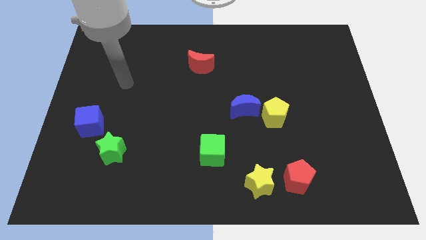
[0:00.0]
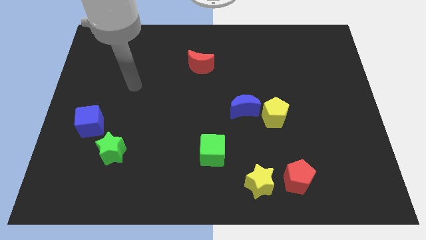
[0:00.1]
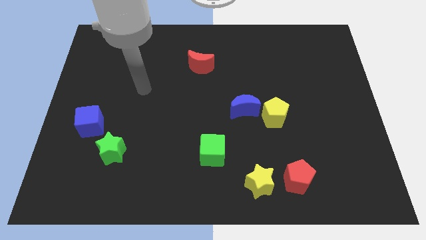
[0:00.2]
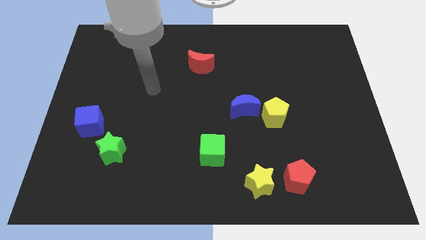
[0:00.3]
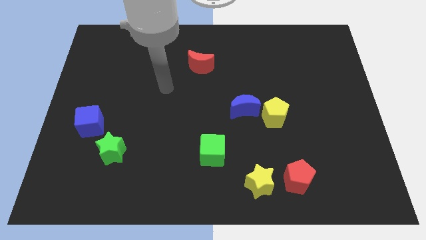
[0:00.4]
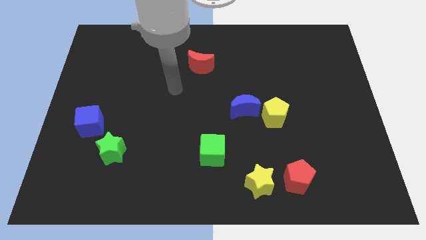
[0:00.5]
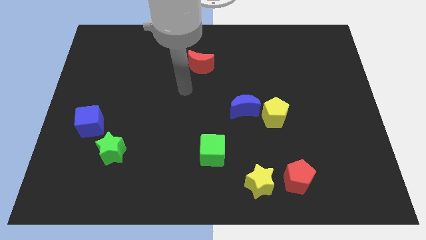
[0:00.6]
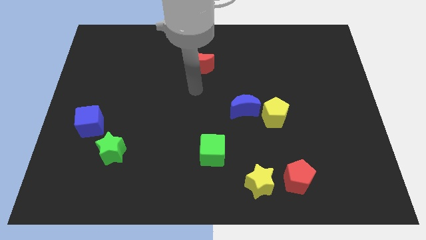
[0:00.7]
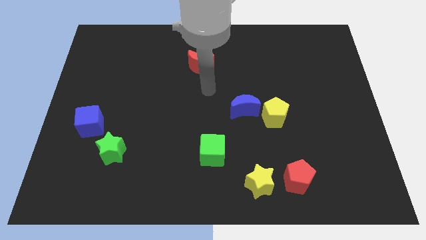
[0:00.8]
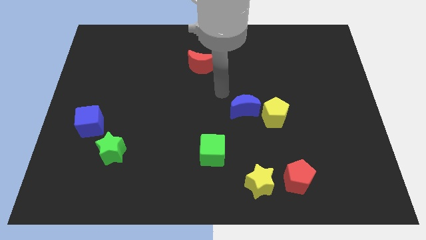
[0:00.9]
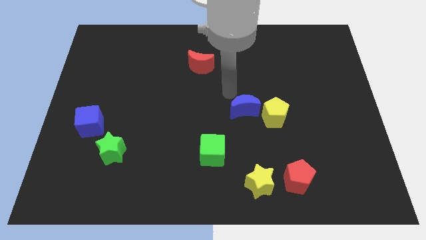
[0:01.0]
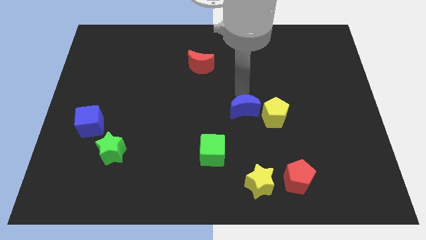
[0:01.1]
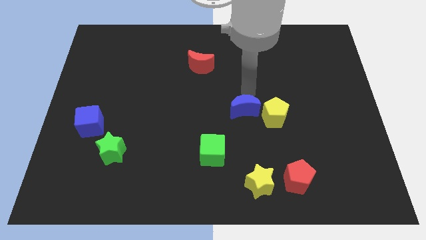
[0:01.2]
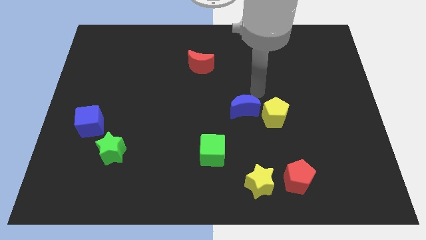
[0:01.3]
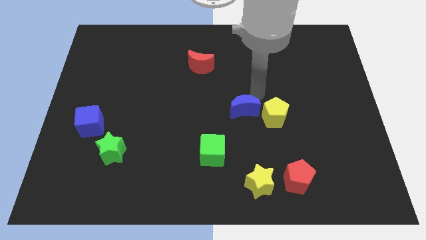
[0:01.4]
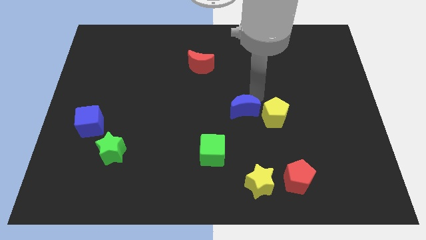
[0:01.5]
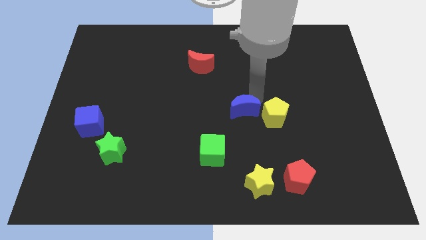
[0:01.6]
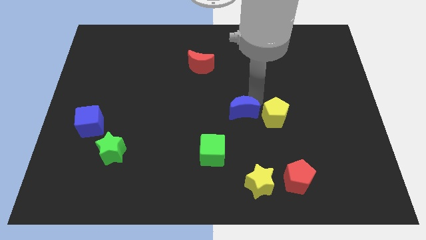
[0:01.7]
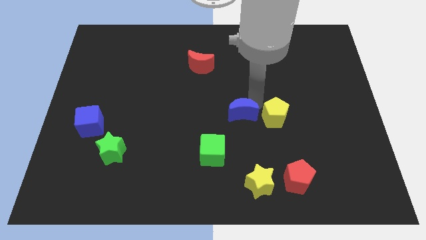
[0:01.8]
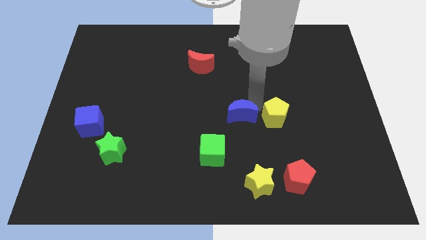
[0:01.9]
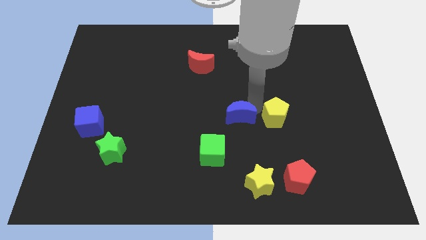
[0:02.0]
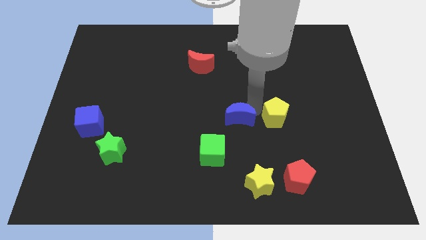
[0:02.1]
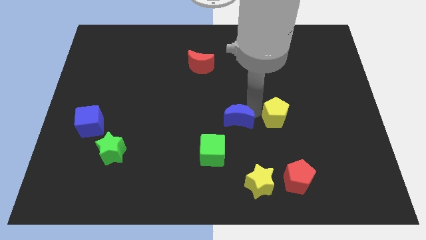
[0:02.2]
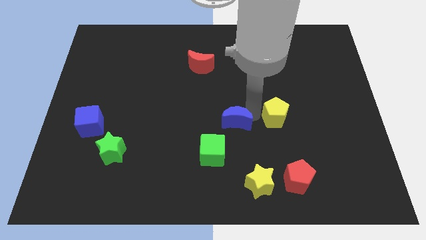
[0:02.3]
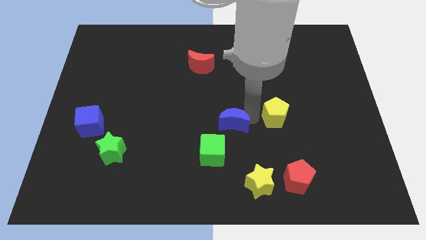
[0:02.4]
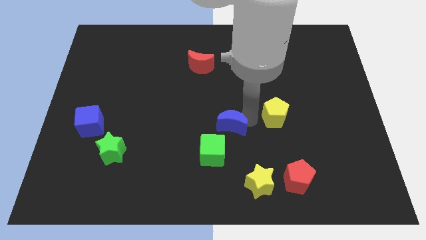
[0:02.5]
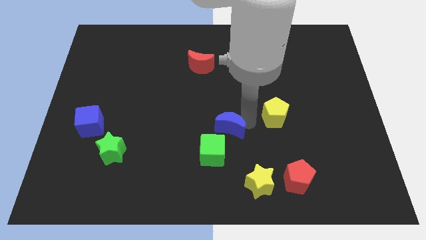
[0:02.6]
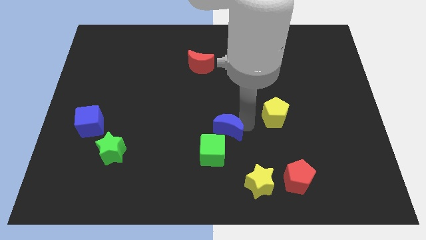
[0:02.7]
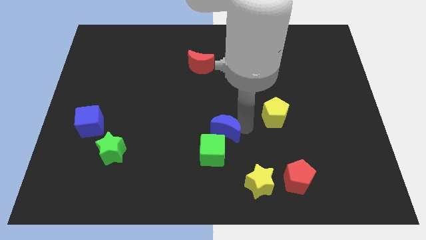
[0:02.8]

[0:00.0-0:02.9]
push the blue moon down and then left somewhat

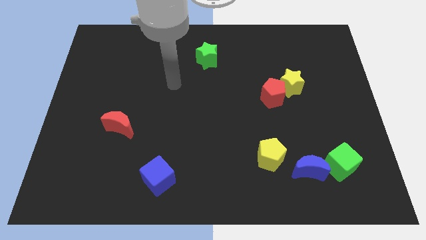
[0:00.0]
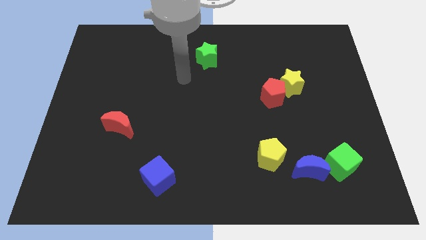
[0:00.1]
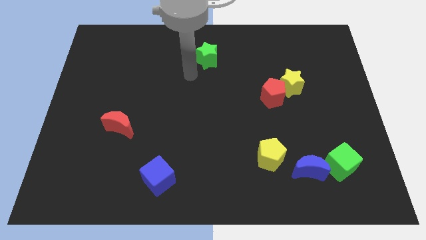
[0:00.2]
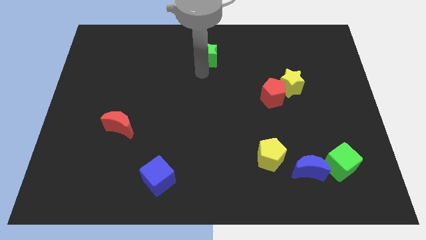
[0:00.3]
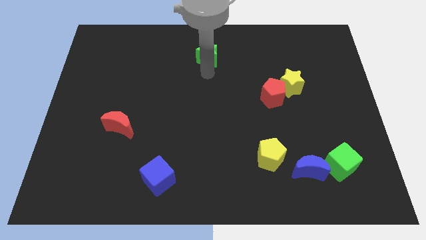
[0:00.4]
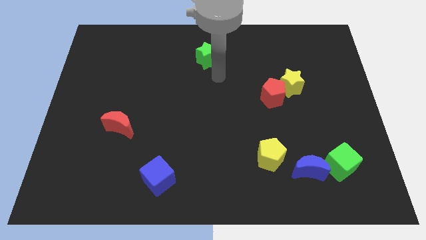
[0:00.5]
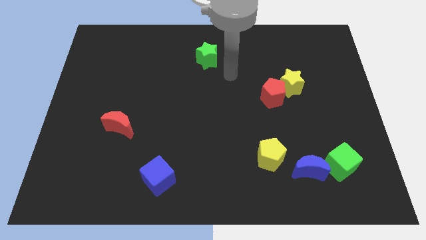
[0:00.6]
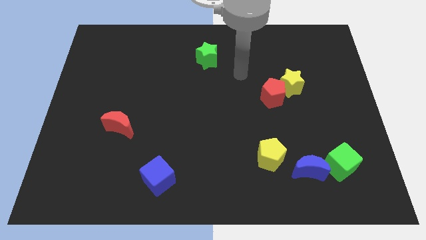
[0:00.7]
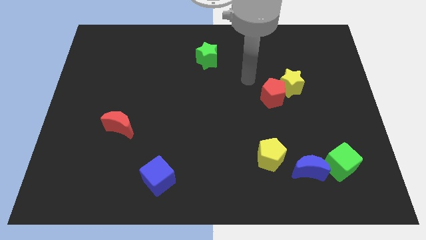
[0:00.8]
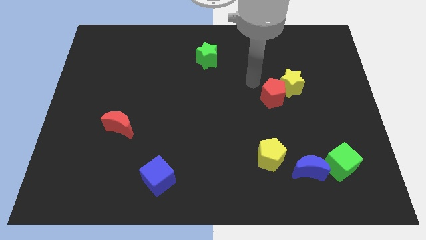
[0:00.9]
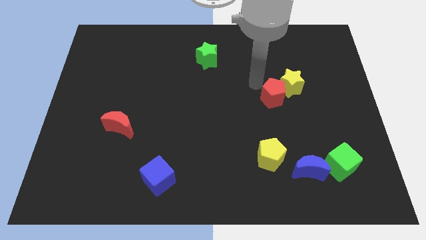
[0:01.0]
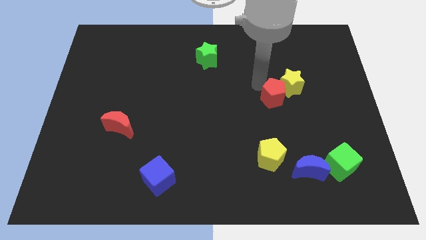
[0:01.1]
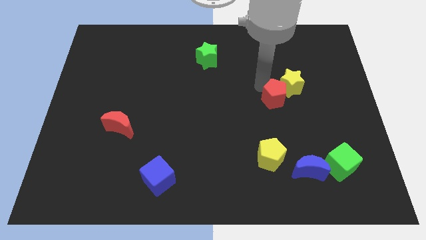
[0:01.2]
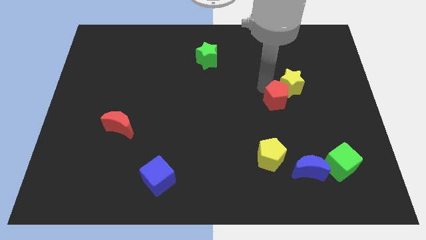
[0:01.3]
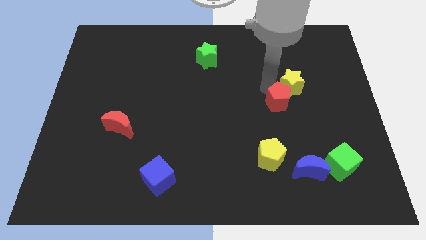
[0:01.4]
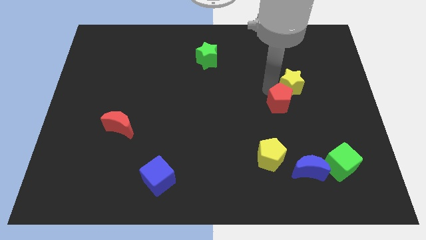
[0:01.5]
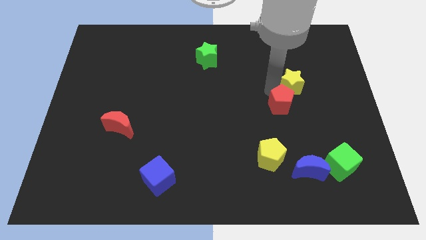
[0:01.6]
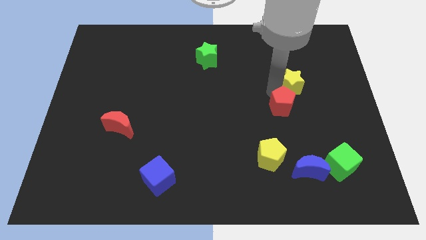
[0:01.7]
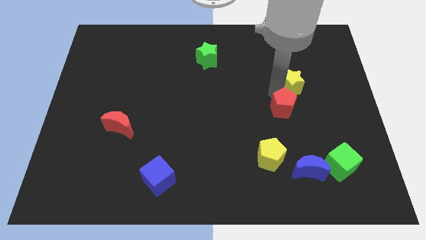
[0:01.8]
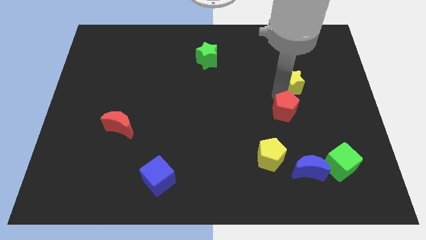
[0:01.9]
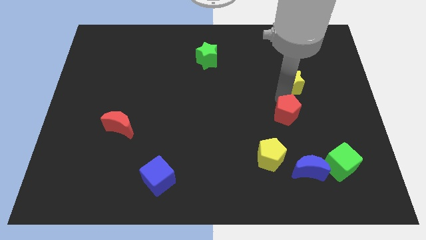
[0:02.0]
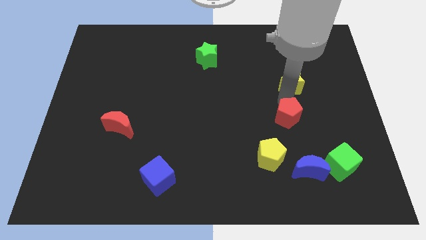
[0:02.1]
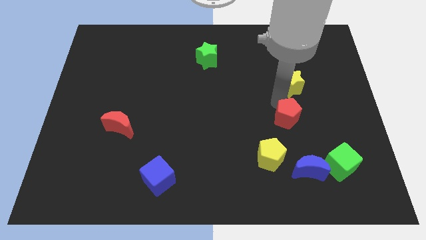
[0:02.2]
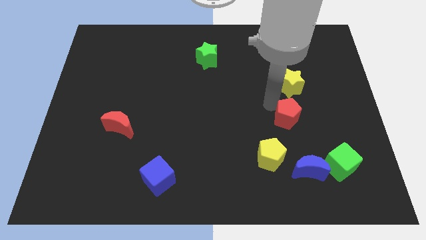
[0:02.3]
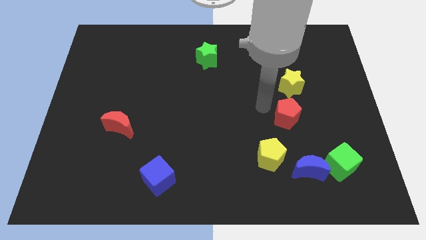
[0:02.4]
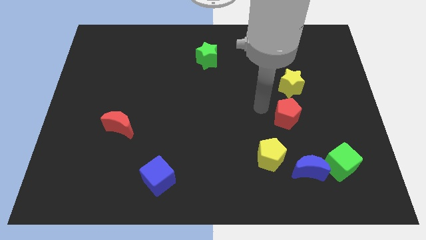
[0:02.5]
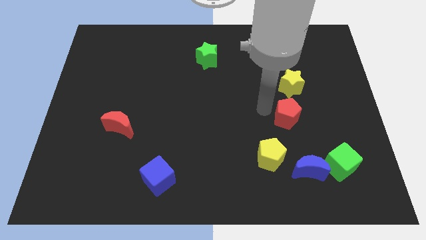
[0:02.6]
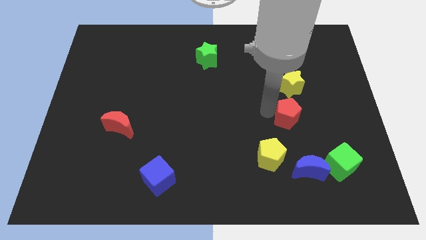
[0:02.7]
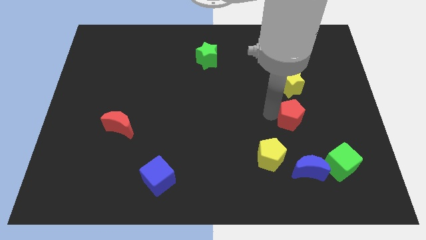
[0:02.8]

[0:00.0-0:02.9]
slightly push the red pentagon down and to the right diagonally

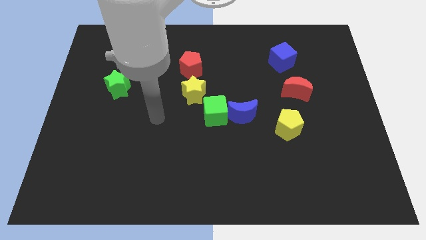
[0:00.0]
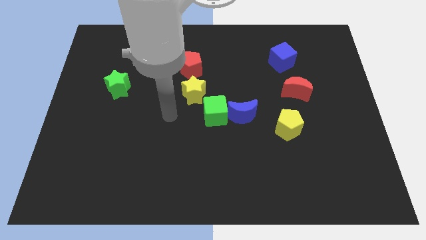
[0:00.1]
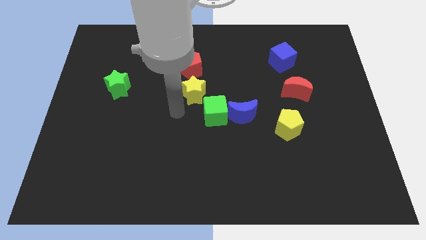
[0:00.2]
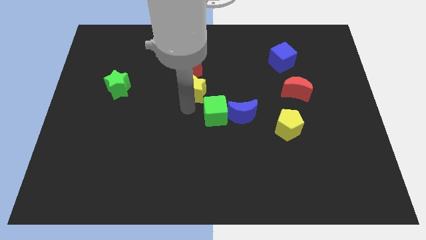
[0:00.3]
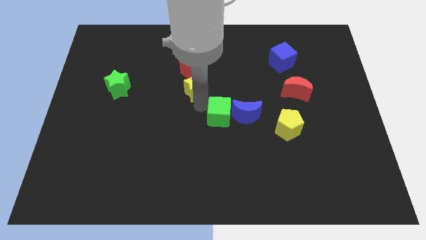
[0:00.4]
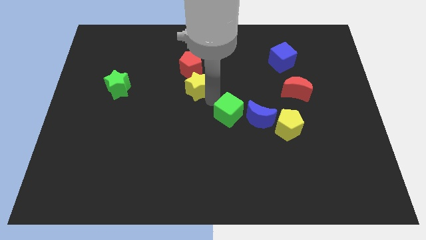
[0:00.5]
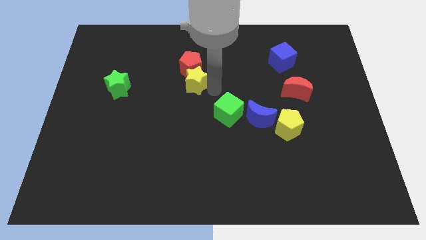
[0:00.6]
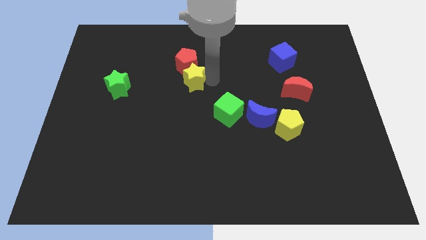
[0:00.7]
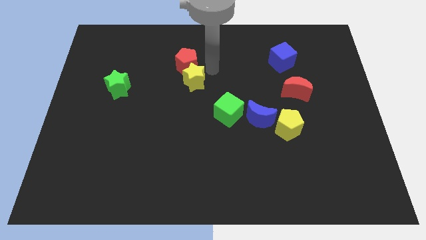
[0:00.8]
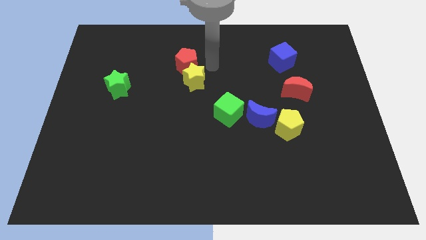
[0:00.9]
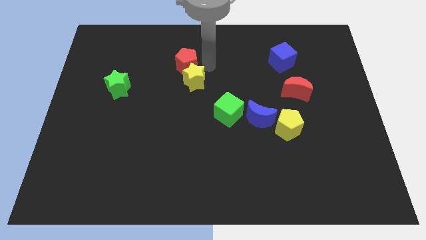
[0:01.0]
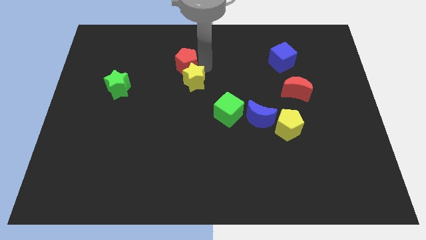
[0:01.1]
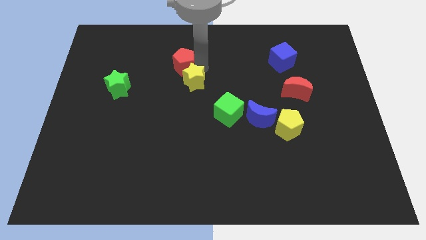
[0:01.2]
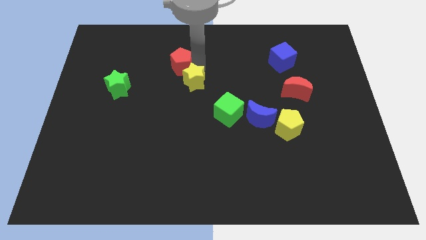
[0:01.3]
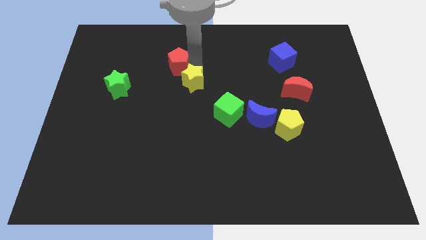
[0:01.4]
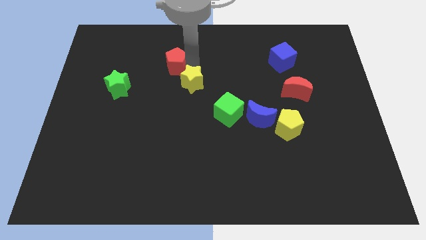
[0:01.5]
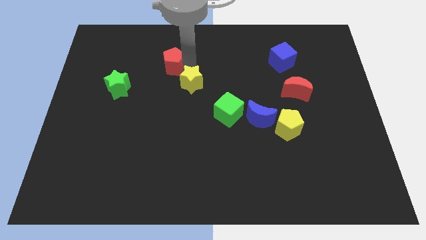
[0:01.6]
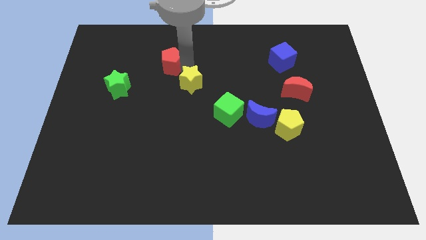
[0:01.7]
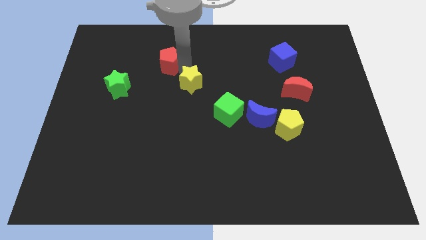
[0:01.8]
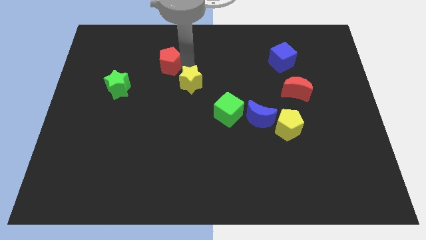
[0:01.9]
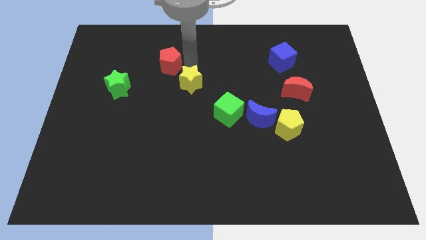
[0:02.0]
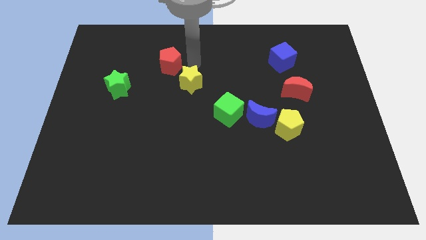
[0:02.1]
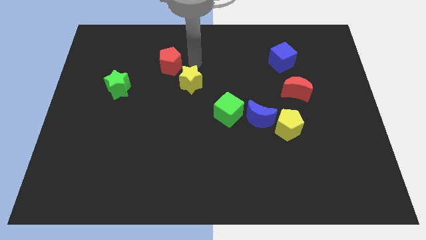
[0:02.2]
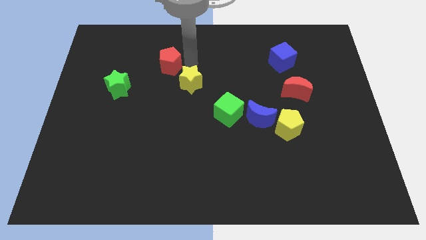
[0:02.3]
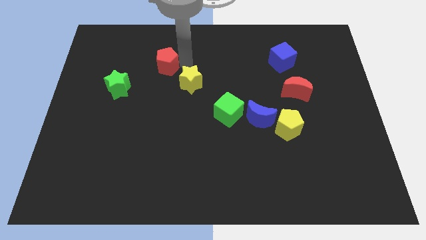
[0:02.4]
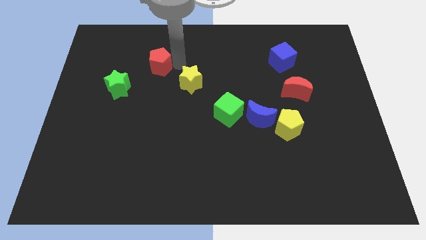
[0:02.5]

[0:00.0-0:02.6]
move the red pentagon a little to the left
